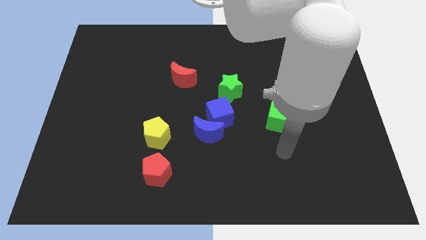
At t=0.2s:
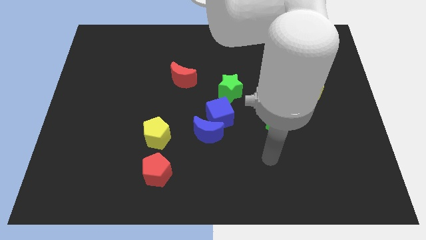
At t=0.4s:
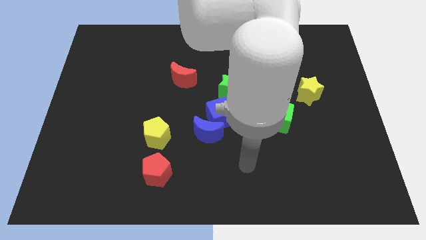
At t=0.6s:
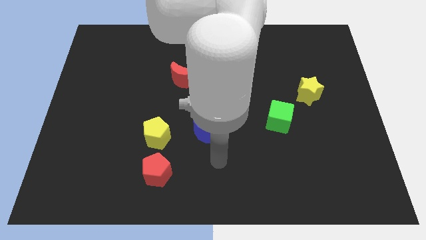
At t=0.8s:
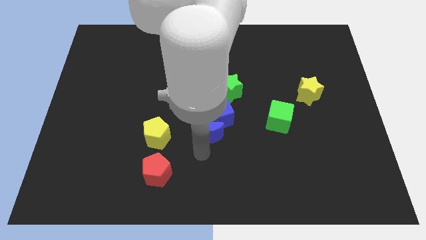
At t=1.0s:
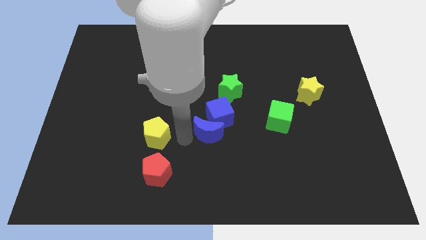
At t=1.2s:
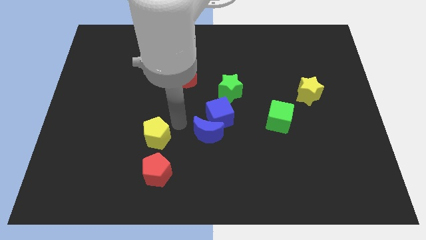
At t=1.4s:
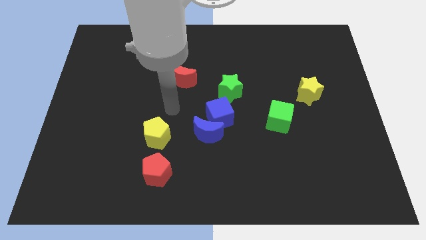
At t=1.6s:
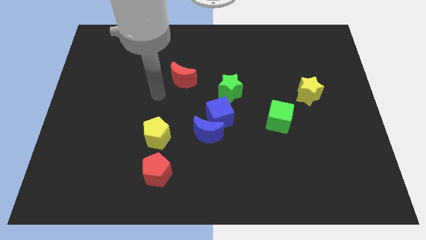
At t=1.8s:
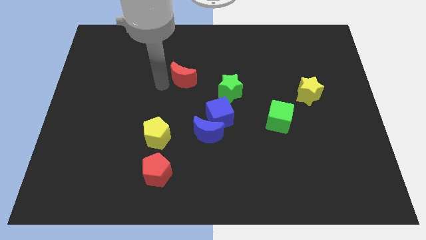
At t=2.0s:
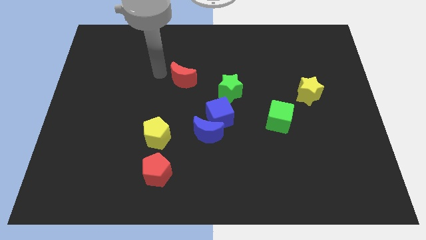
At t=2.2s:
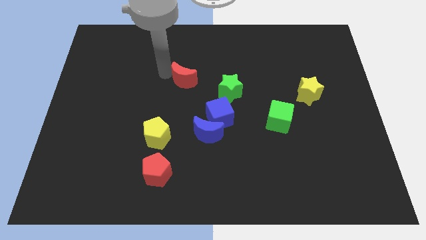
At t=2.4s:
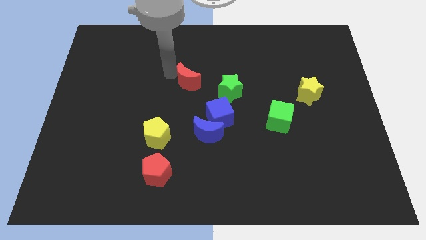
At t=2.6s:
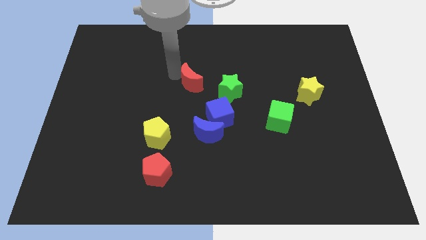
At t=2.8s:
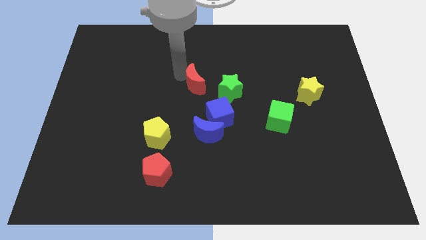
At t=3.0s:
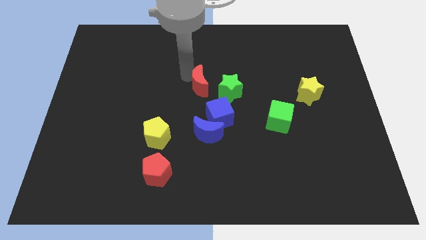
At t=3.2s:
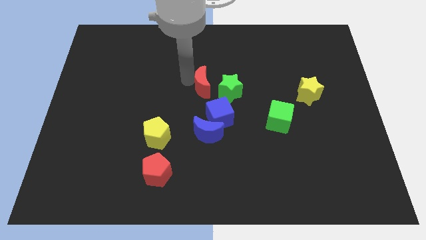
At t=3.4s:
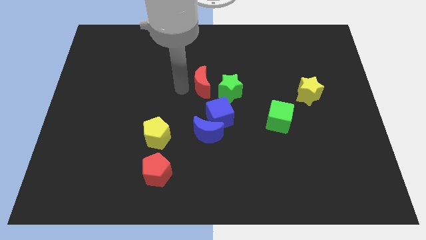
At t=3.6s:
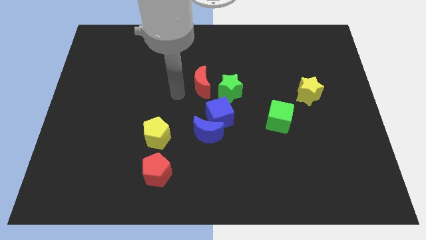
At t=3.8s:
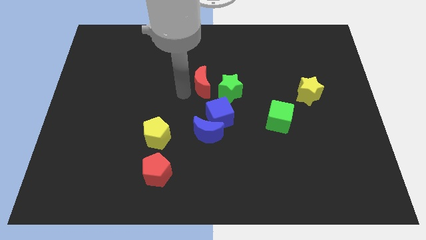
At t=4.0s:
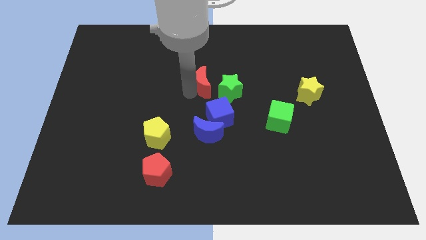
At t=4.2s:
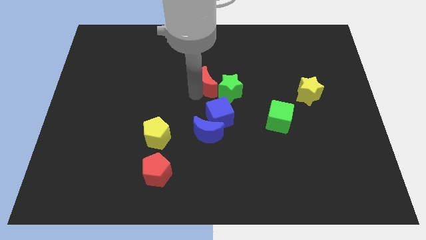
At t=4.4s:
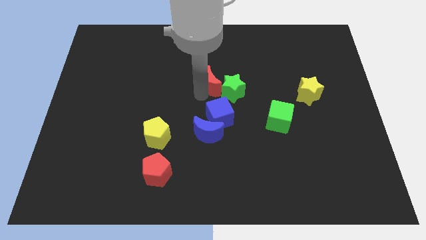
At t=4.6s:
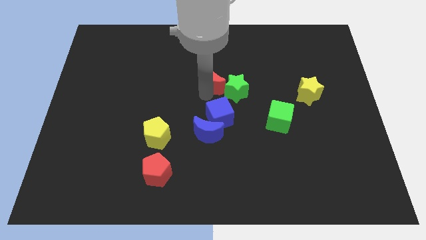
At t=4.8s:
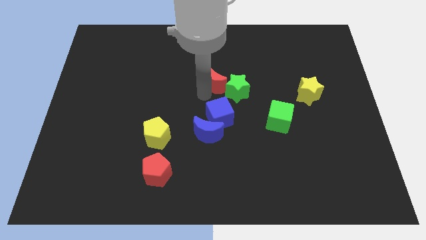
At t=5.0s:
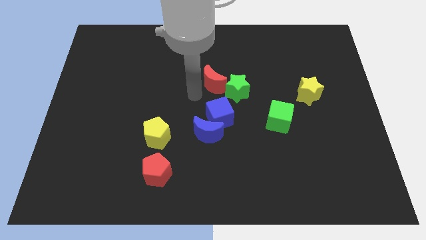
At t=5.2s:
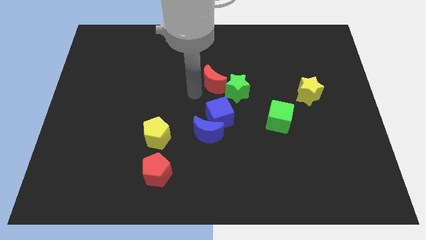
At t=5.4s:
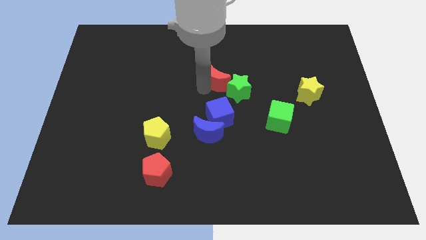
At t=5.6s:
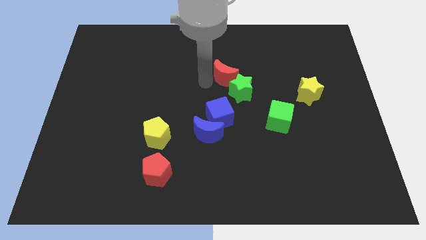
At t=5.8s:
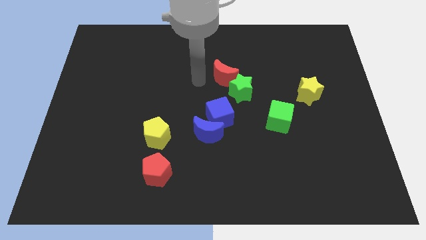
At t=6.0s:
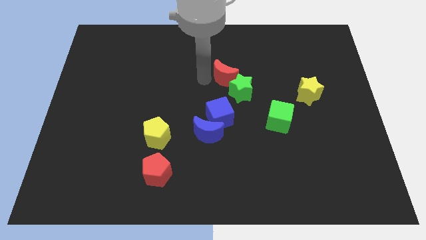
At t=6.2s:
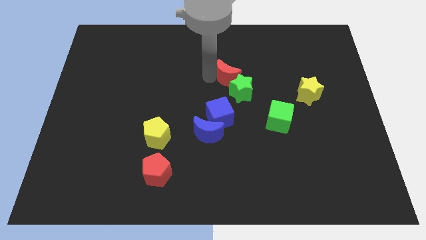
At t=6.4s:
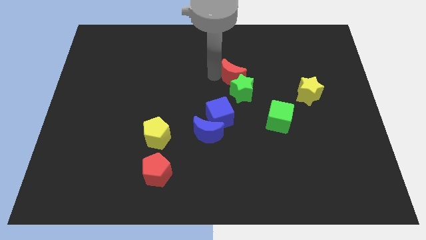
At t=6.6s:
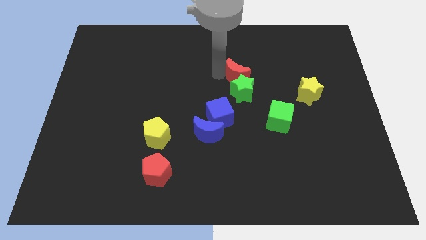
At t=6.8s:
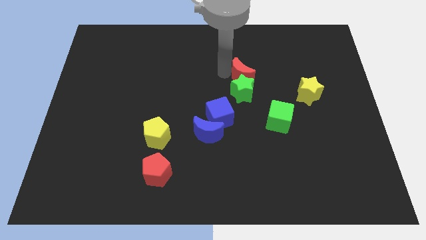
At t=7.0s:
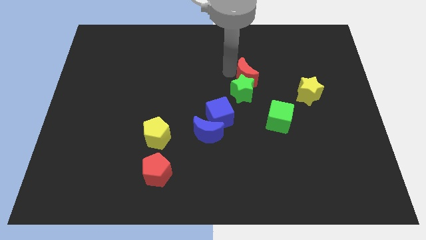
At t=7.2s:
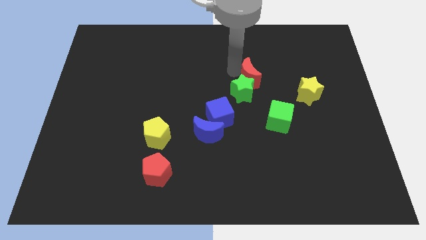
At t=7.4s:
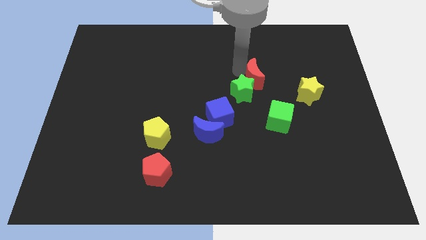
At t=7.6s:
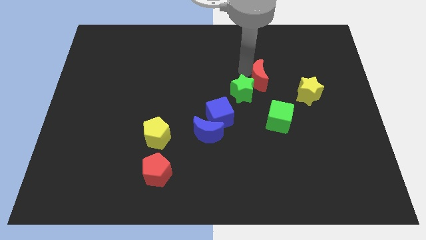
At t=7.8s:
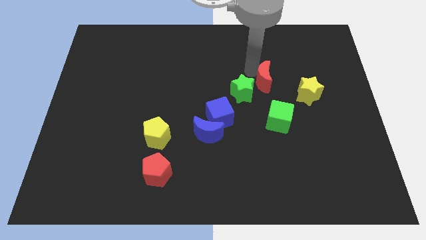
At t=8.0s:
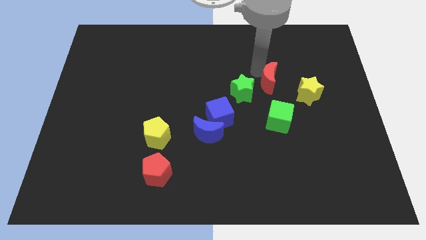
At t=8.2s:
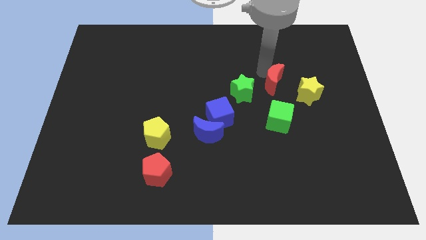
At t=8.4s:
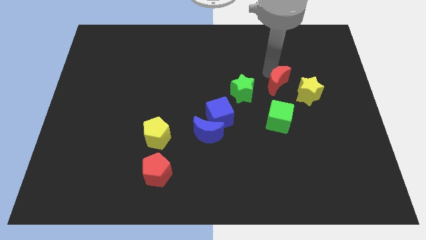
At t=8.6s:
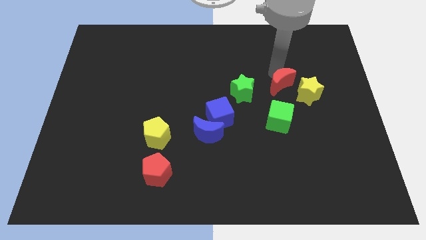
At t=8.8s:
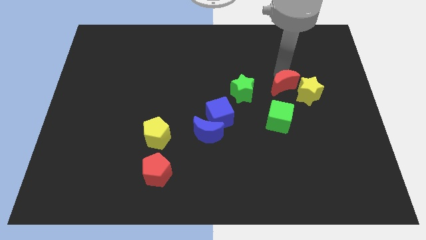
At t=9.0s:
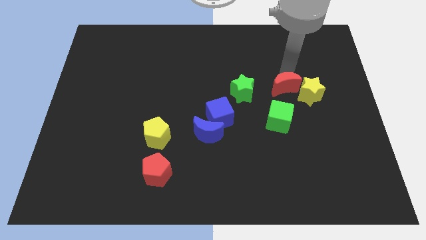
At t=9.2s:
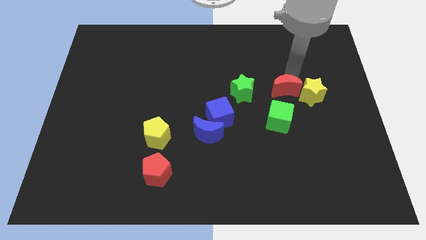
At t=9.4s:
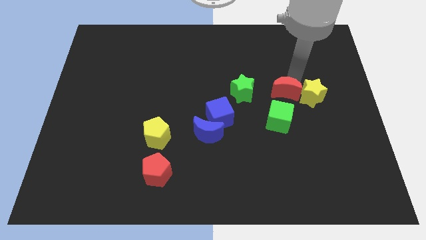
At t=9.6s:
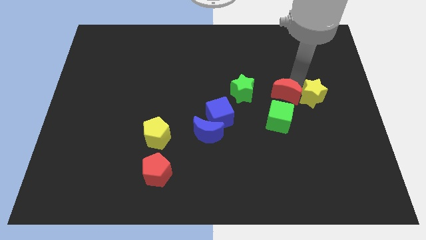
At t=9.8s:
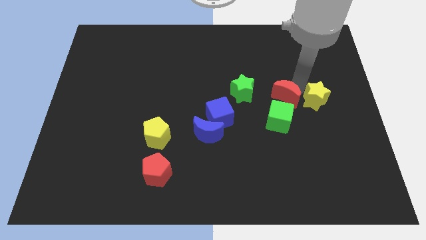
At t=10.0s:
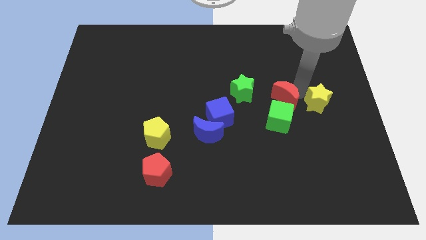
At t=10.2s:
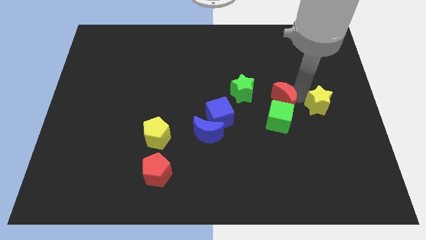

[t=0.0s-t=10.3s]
slide the red moon to the green cube
